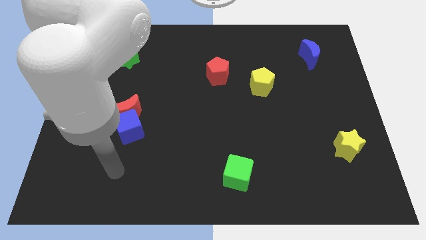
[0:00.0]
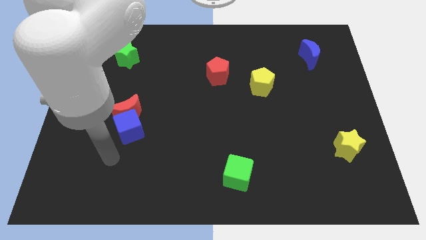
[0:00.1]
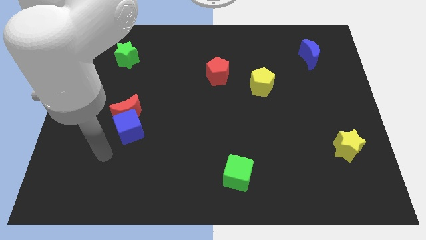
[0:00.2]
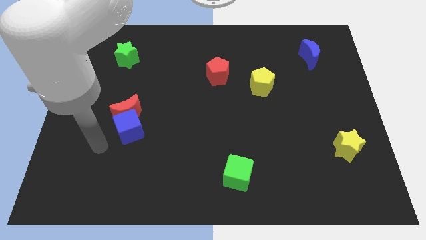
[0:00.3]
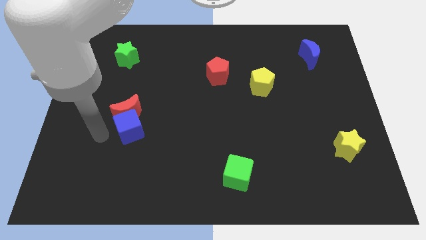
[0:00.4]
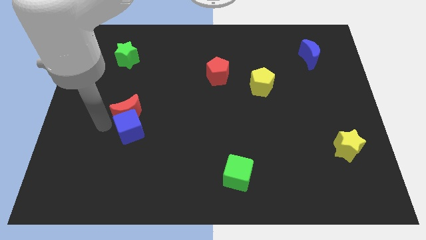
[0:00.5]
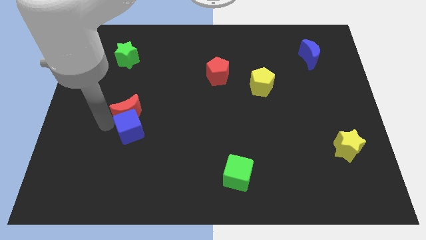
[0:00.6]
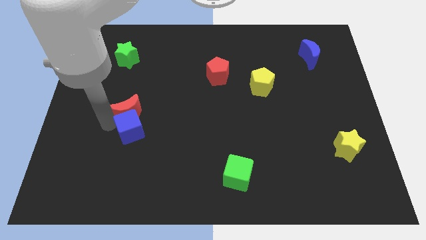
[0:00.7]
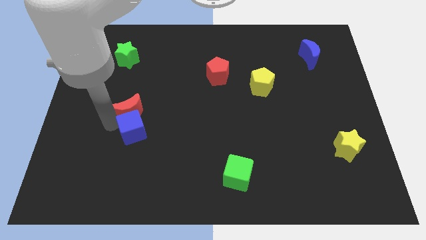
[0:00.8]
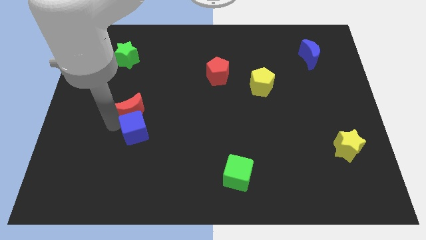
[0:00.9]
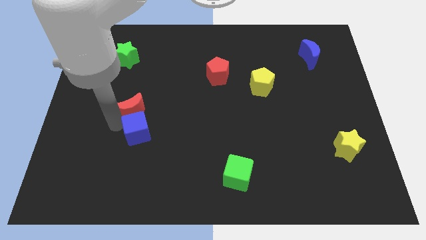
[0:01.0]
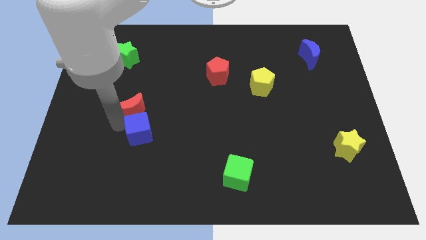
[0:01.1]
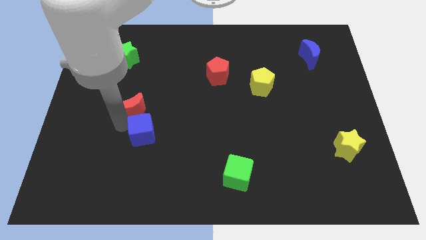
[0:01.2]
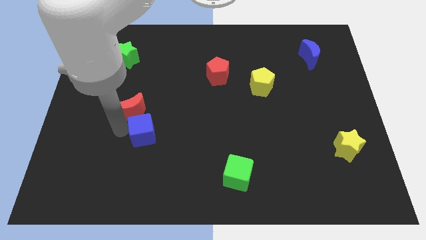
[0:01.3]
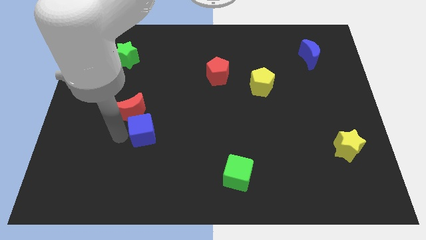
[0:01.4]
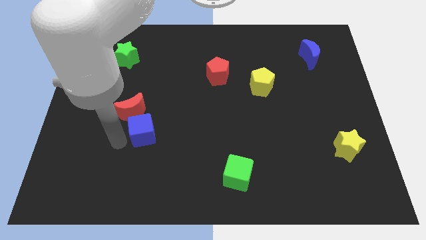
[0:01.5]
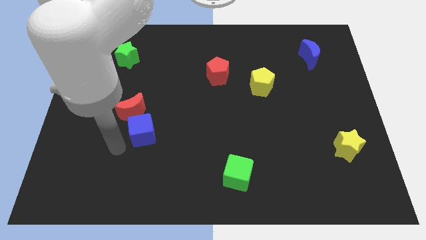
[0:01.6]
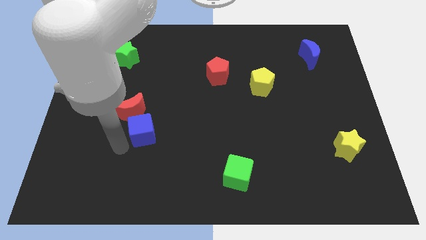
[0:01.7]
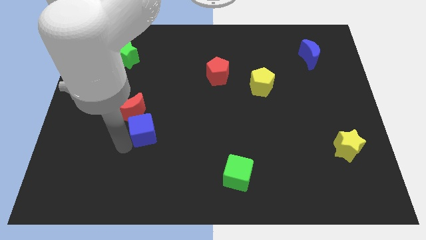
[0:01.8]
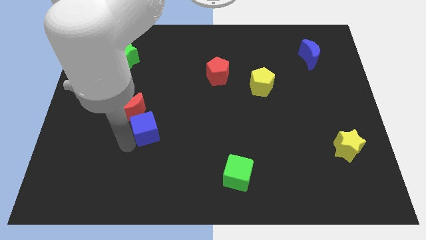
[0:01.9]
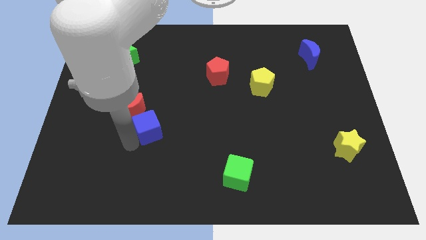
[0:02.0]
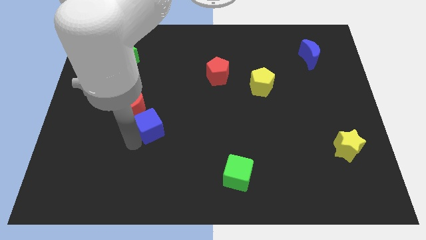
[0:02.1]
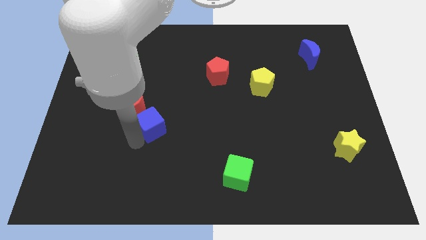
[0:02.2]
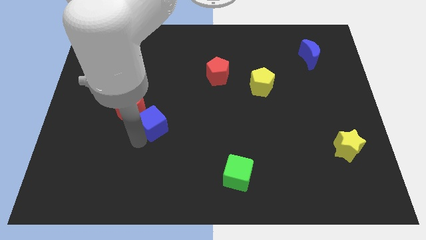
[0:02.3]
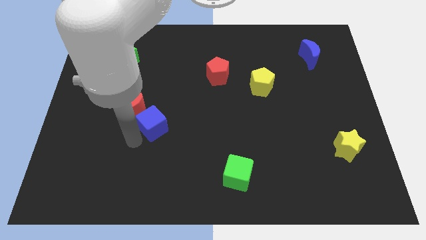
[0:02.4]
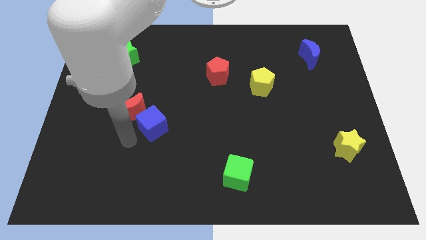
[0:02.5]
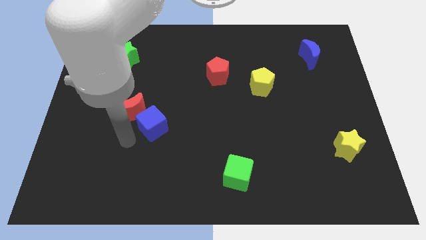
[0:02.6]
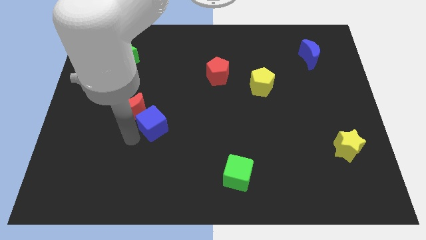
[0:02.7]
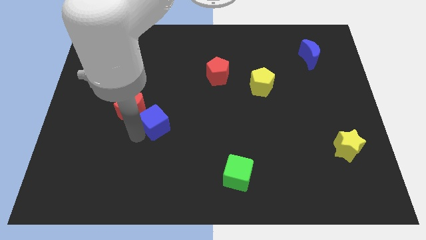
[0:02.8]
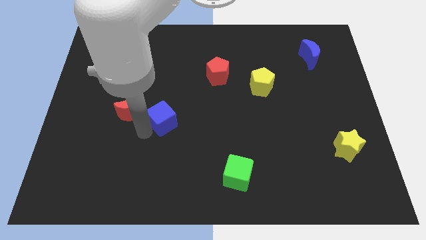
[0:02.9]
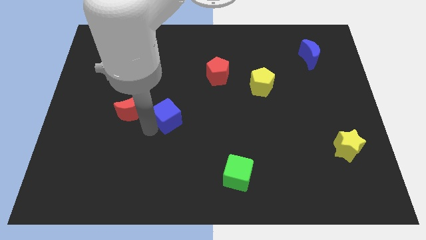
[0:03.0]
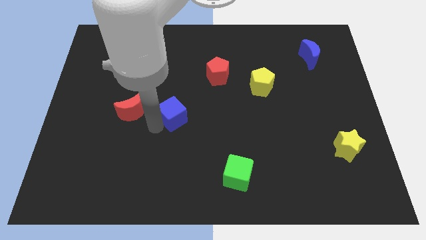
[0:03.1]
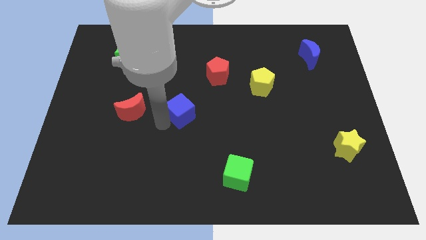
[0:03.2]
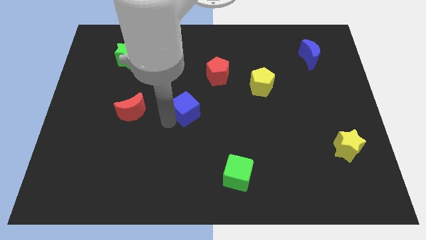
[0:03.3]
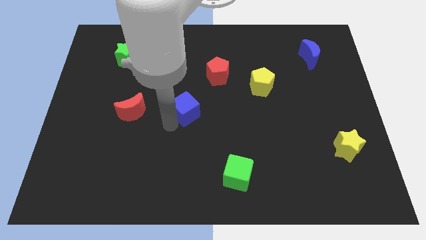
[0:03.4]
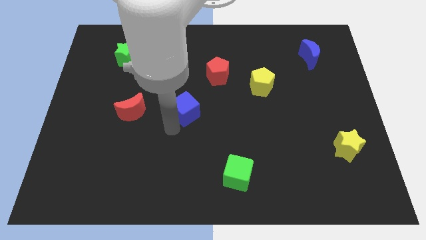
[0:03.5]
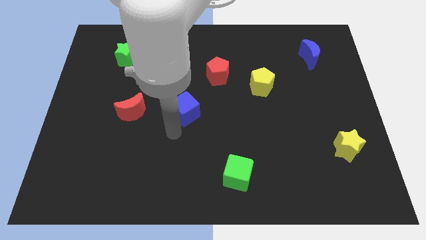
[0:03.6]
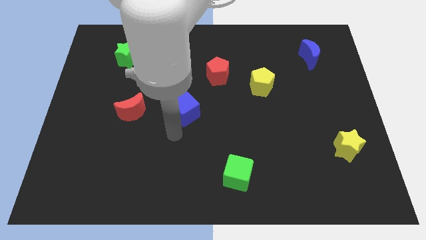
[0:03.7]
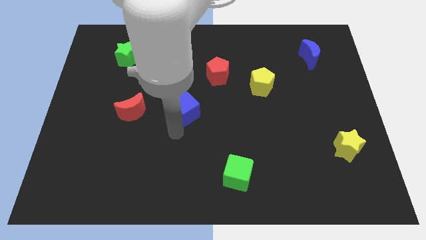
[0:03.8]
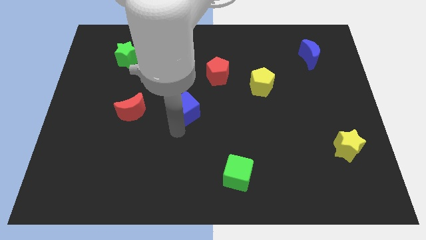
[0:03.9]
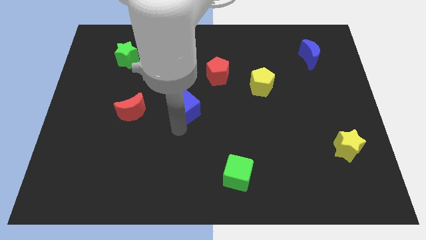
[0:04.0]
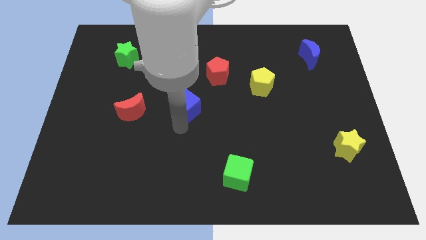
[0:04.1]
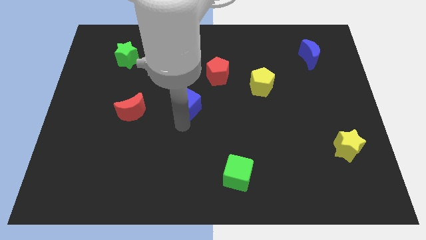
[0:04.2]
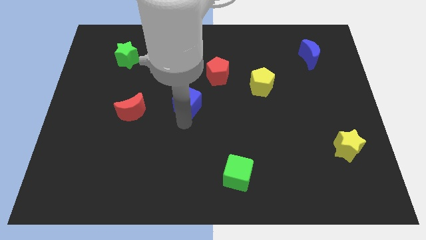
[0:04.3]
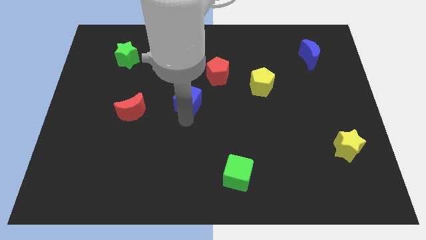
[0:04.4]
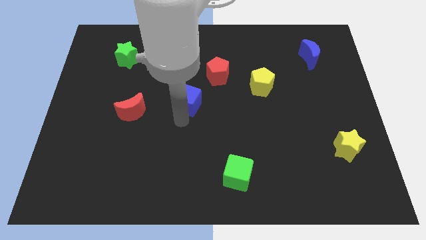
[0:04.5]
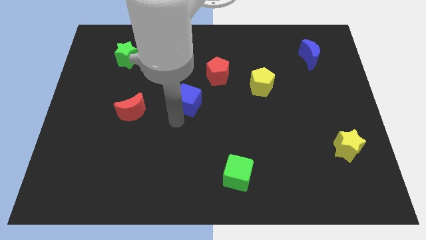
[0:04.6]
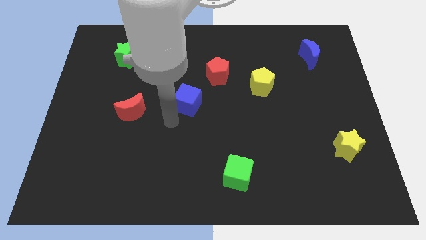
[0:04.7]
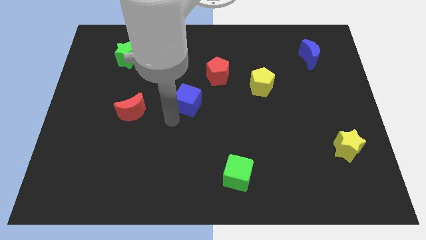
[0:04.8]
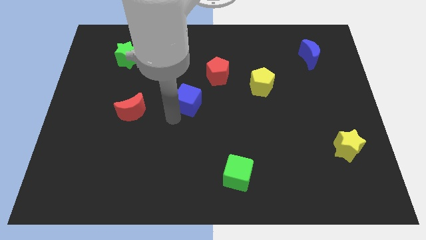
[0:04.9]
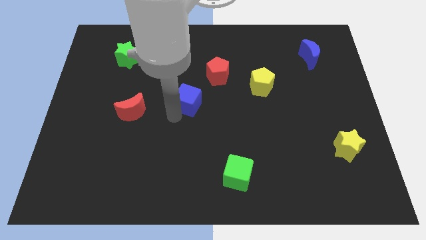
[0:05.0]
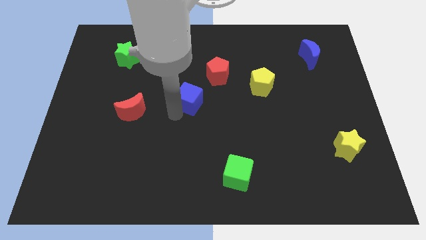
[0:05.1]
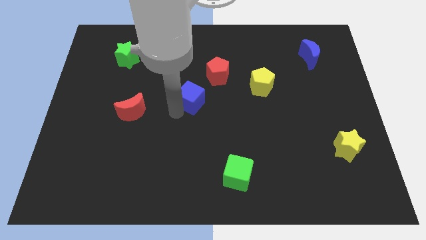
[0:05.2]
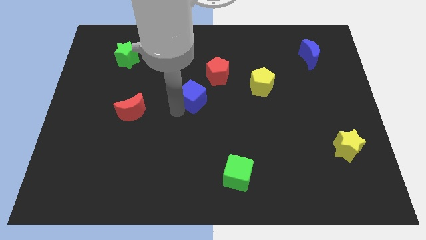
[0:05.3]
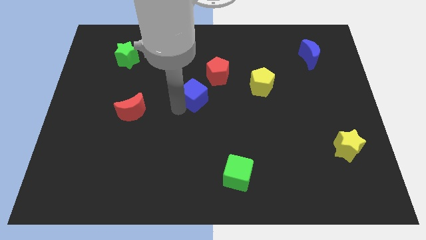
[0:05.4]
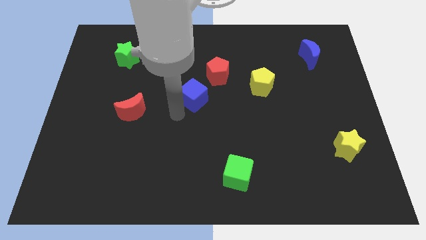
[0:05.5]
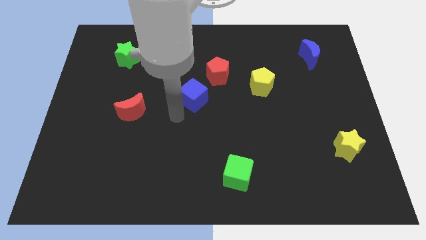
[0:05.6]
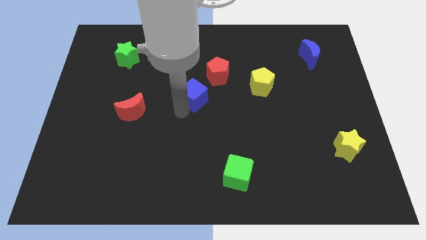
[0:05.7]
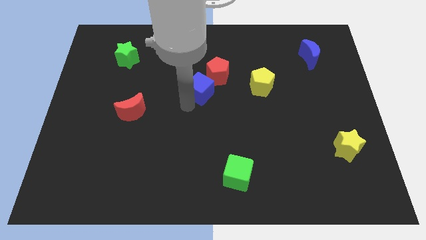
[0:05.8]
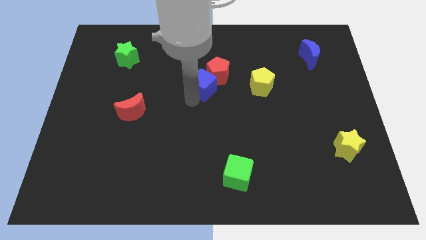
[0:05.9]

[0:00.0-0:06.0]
slide the blue cube towards the red pentagon

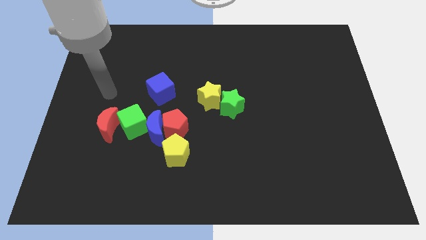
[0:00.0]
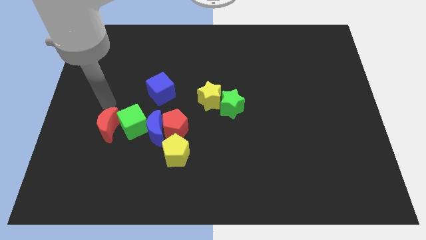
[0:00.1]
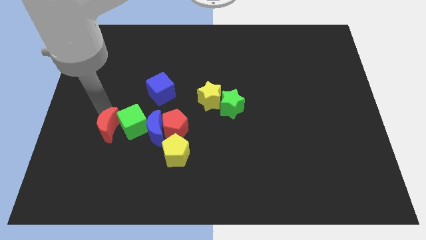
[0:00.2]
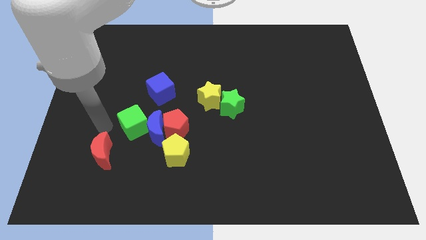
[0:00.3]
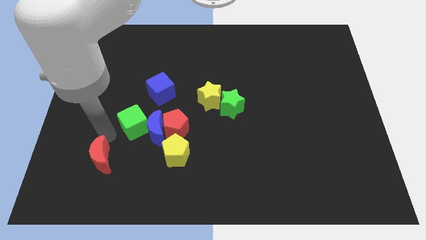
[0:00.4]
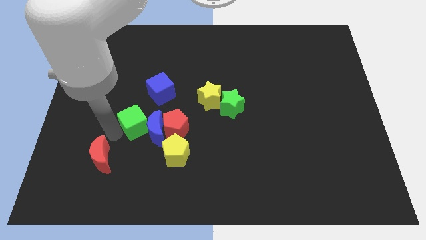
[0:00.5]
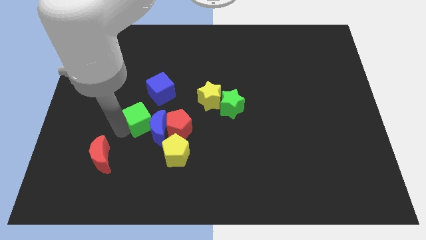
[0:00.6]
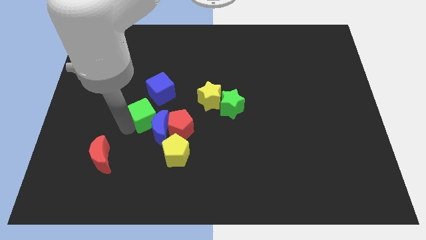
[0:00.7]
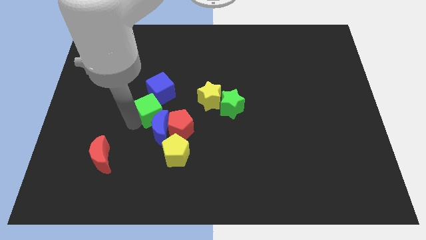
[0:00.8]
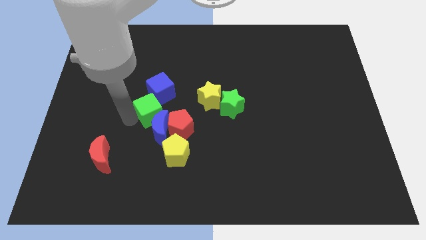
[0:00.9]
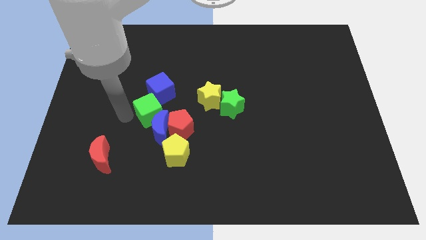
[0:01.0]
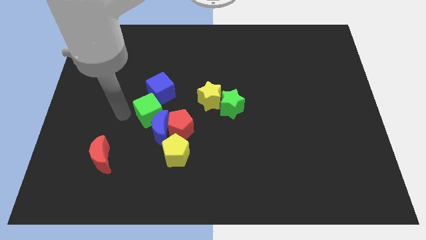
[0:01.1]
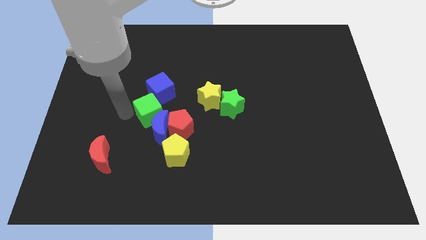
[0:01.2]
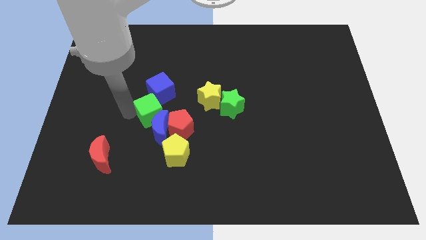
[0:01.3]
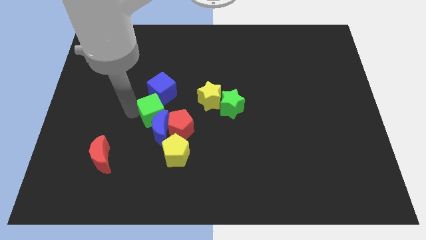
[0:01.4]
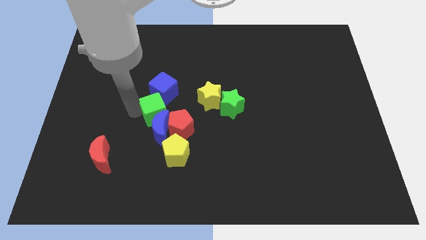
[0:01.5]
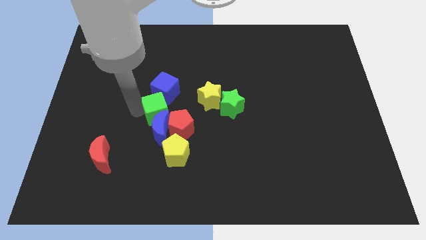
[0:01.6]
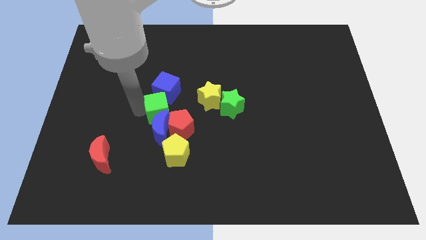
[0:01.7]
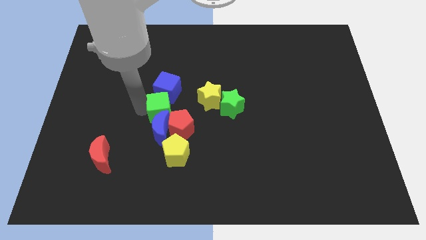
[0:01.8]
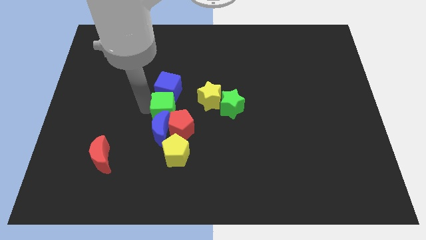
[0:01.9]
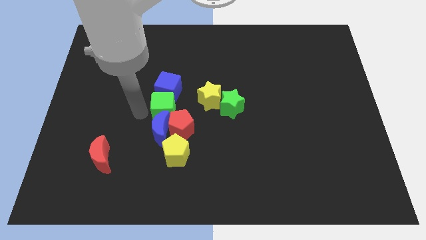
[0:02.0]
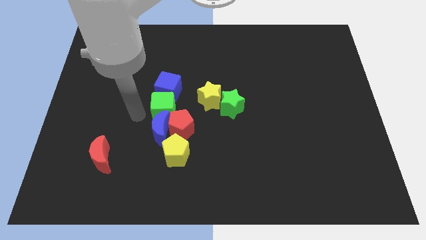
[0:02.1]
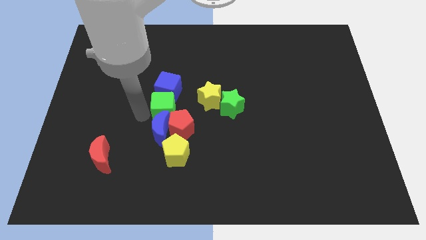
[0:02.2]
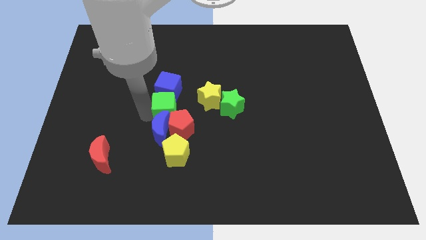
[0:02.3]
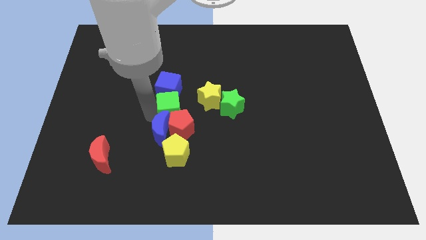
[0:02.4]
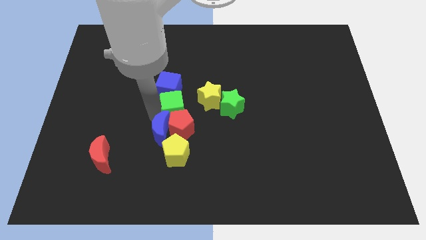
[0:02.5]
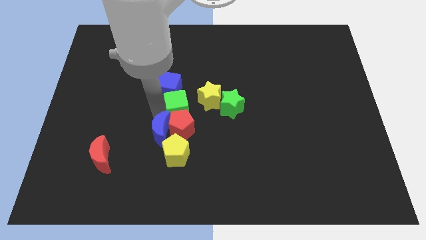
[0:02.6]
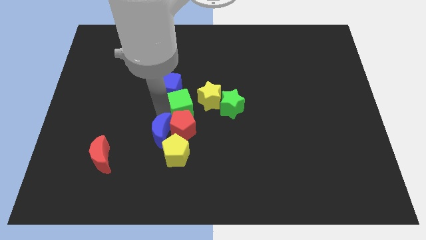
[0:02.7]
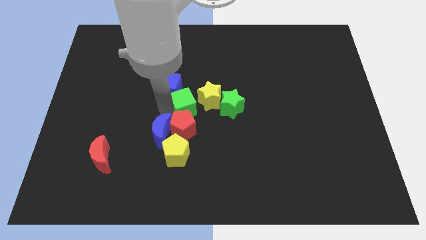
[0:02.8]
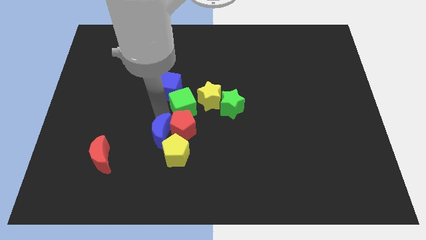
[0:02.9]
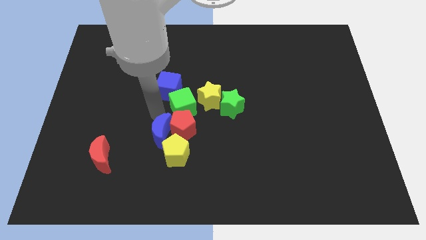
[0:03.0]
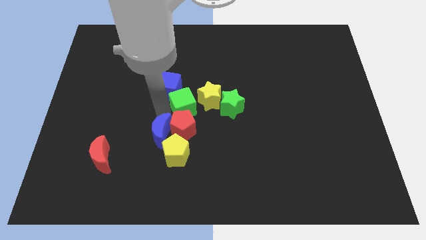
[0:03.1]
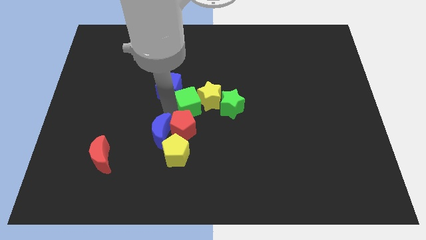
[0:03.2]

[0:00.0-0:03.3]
move the green cube close to the yellow star
